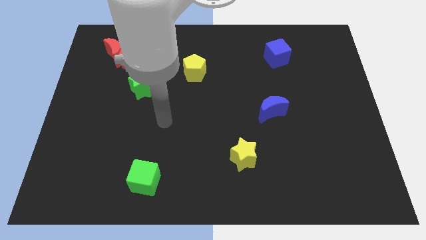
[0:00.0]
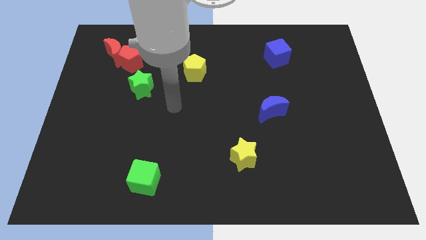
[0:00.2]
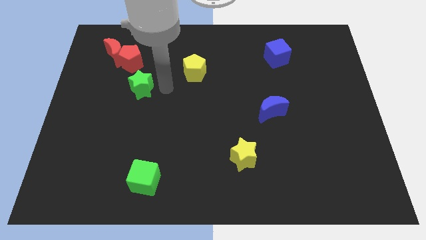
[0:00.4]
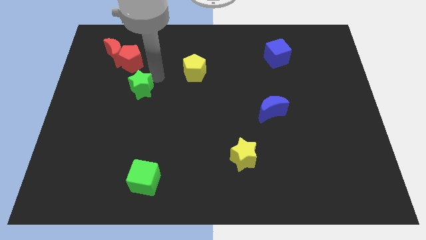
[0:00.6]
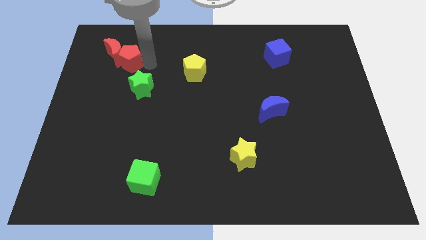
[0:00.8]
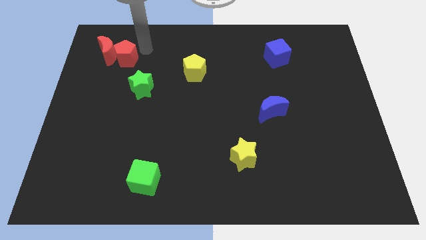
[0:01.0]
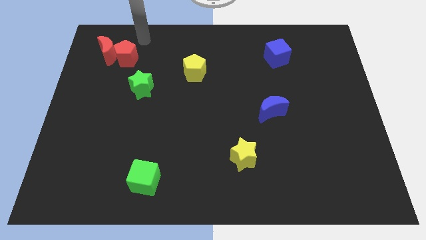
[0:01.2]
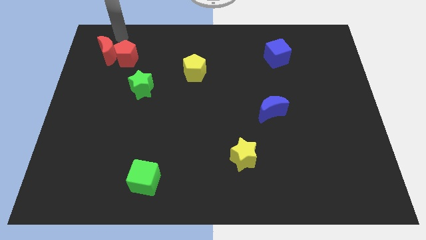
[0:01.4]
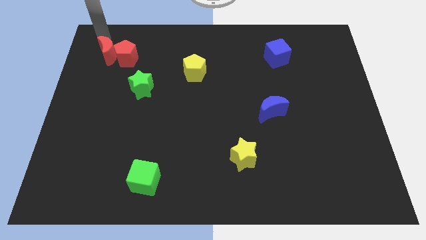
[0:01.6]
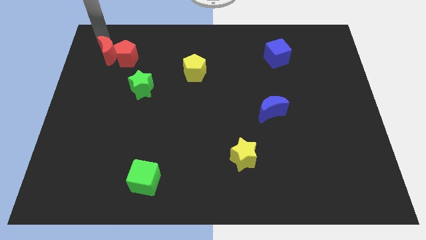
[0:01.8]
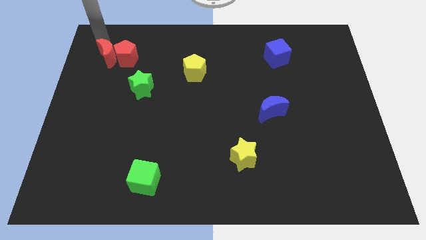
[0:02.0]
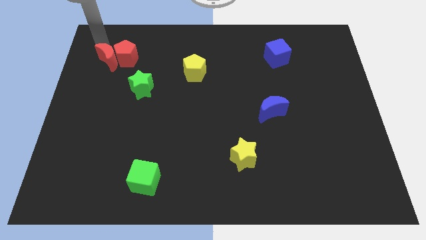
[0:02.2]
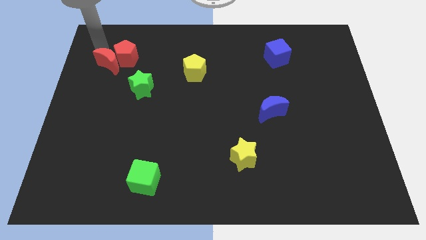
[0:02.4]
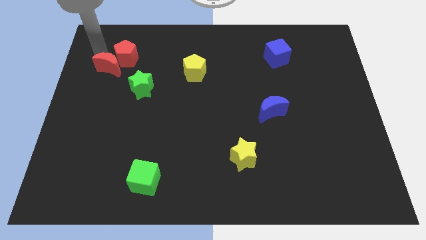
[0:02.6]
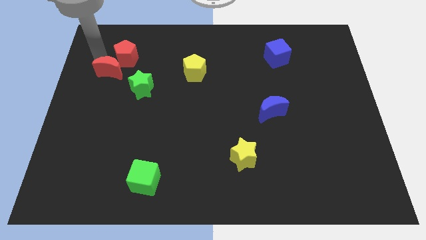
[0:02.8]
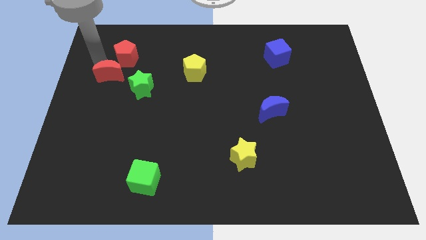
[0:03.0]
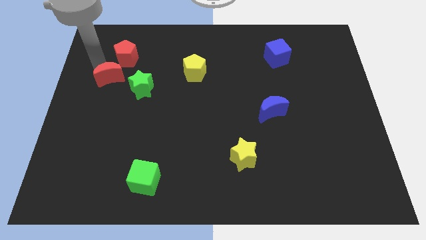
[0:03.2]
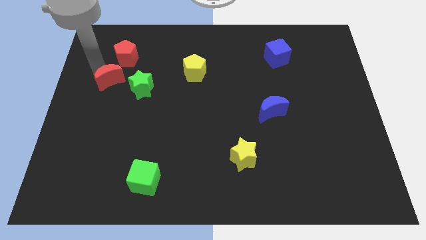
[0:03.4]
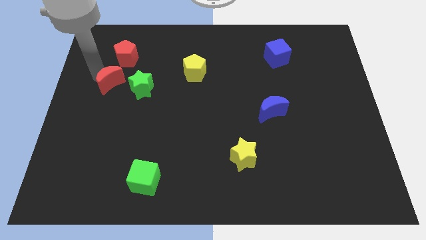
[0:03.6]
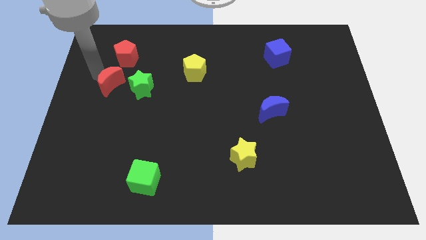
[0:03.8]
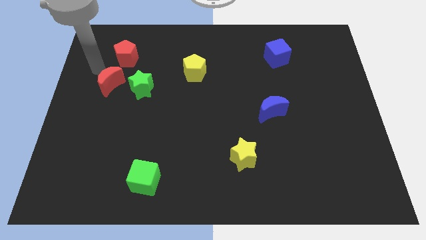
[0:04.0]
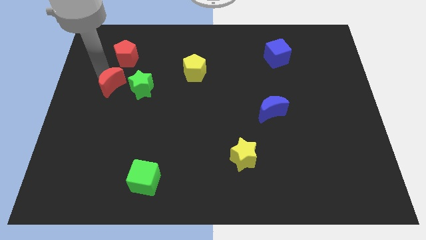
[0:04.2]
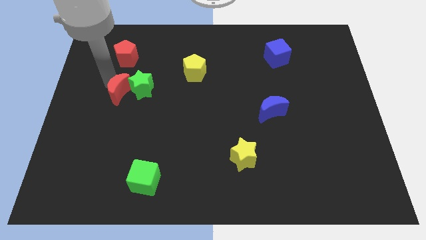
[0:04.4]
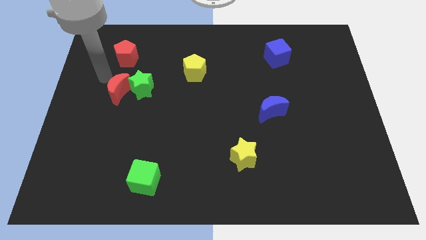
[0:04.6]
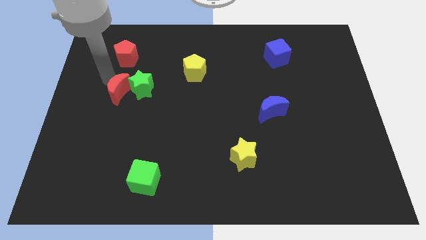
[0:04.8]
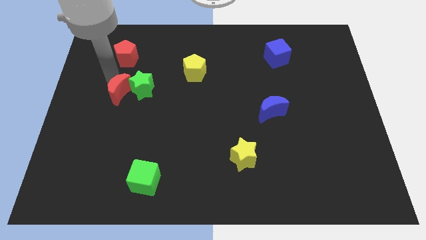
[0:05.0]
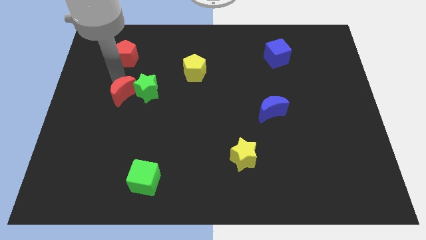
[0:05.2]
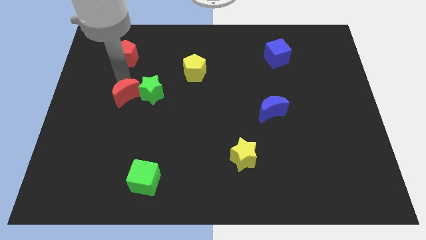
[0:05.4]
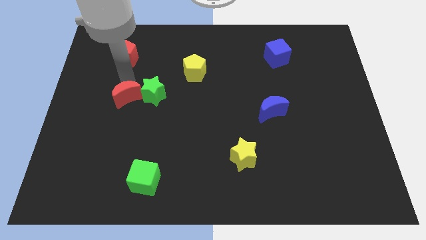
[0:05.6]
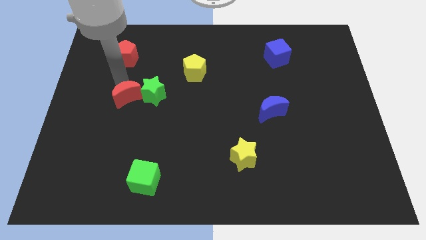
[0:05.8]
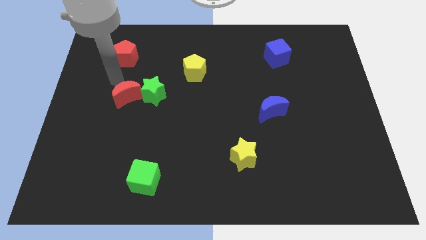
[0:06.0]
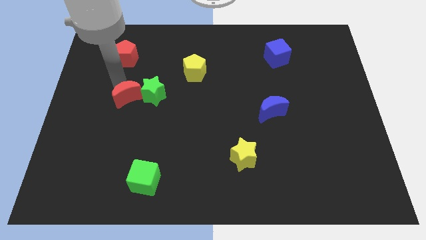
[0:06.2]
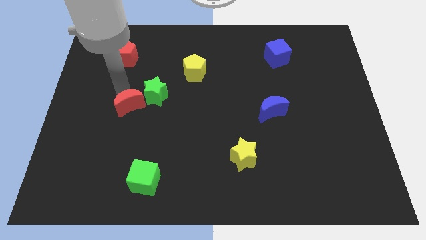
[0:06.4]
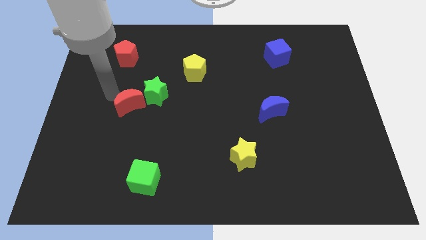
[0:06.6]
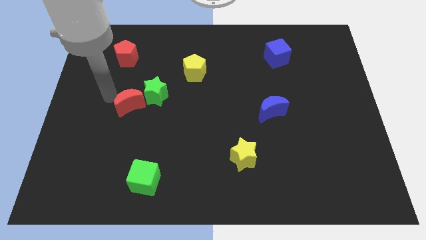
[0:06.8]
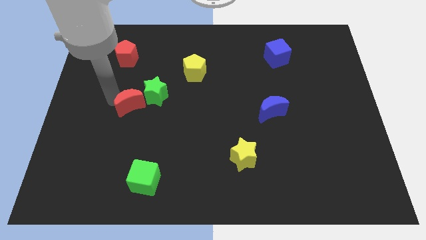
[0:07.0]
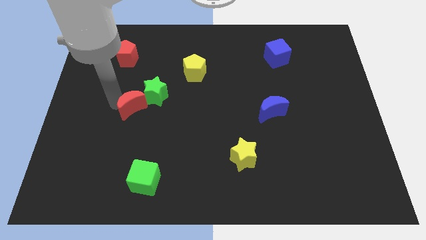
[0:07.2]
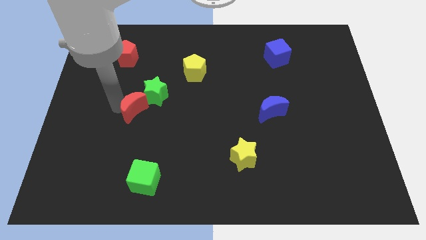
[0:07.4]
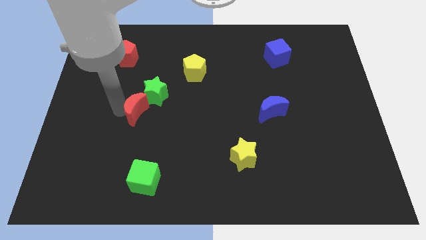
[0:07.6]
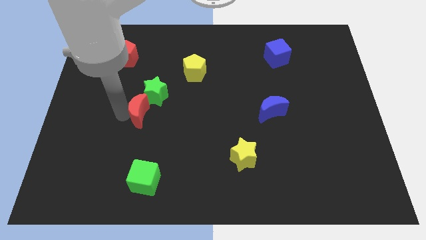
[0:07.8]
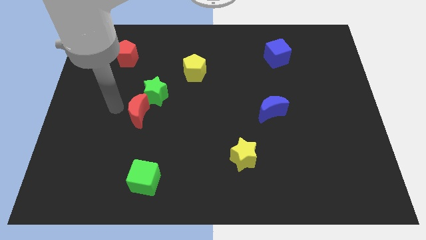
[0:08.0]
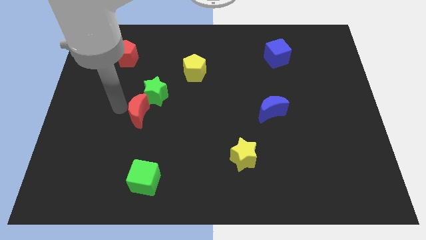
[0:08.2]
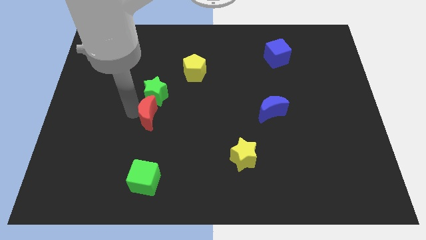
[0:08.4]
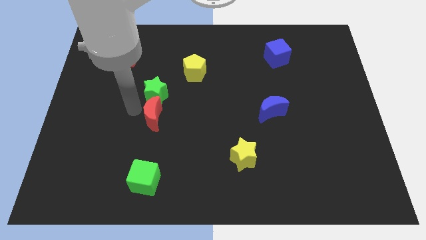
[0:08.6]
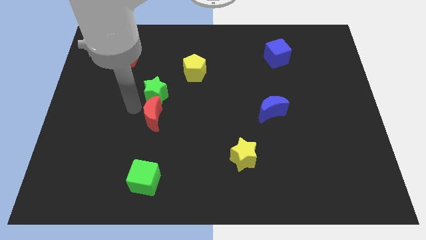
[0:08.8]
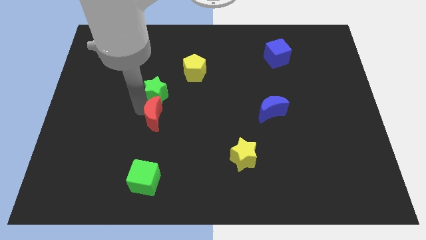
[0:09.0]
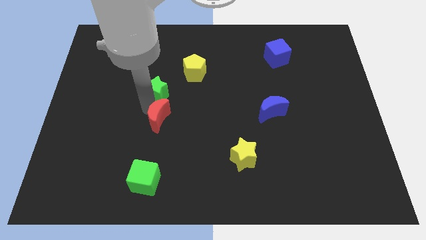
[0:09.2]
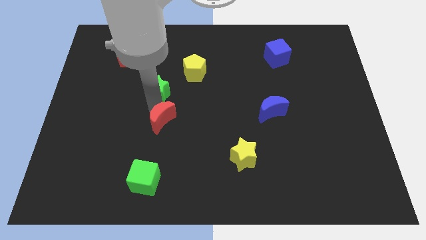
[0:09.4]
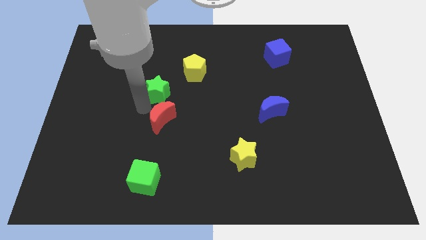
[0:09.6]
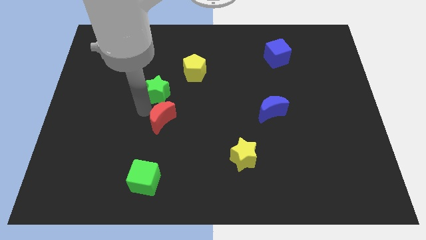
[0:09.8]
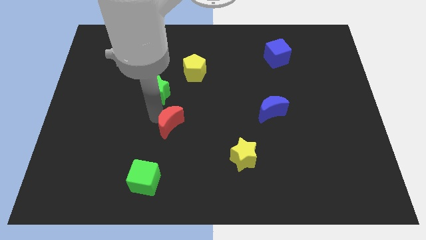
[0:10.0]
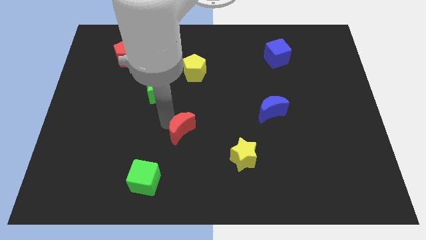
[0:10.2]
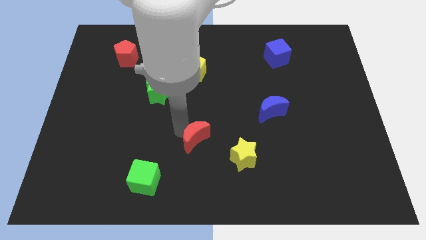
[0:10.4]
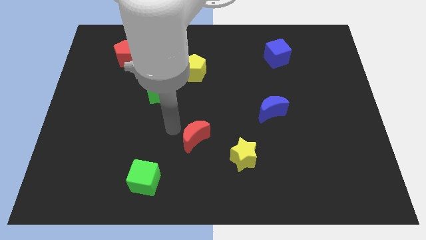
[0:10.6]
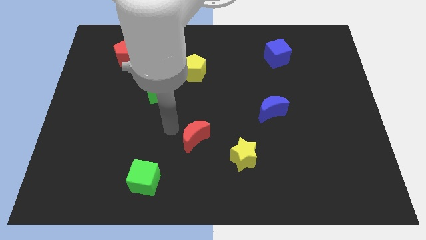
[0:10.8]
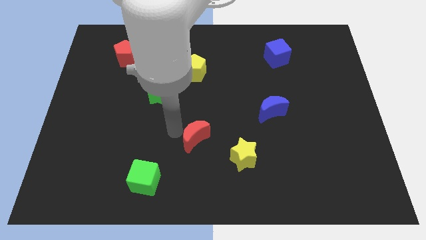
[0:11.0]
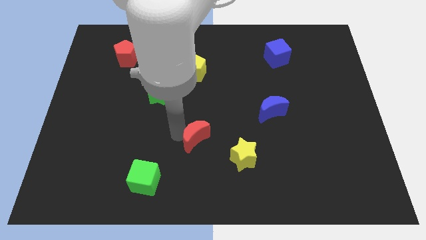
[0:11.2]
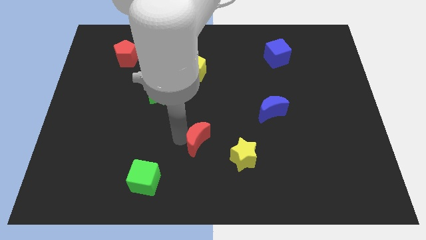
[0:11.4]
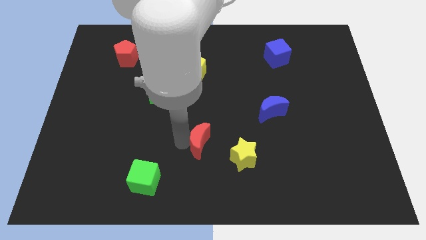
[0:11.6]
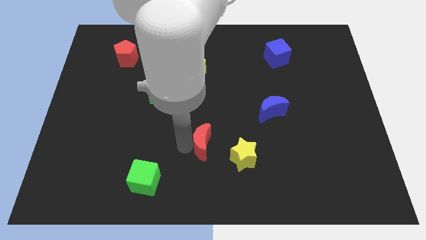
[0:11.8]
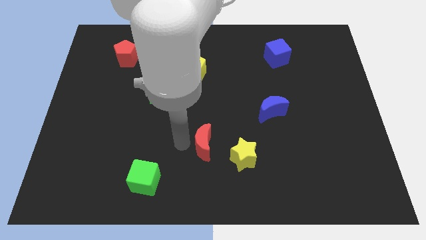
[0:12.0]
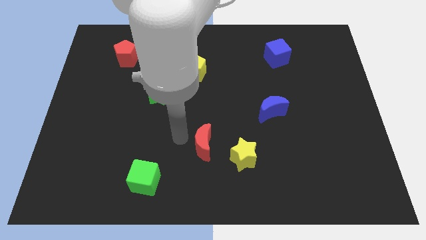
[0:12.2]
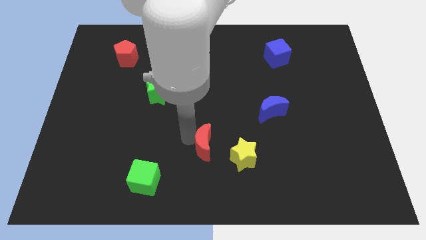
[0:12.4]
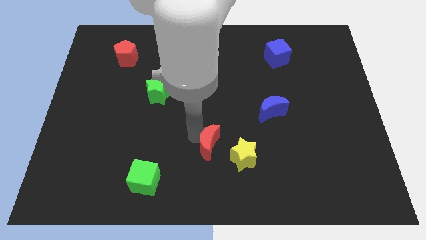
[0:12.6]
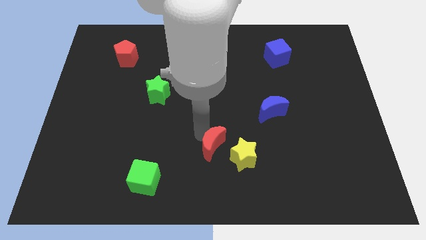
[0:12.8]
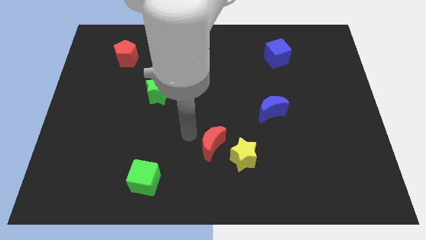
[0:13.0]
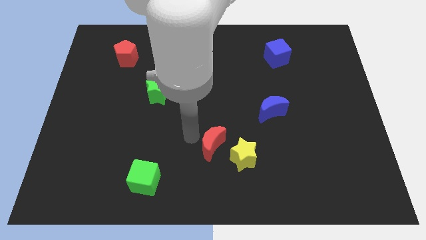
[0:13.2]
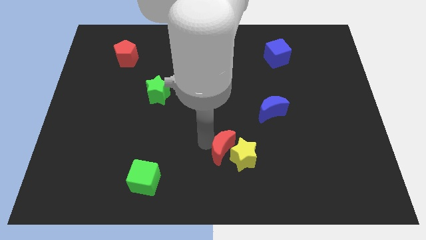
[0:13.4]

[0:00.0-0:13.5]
slide the red moon close to the yellow star

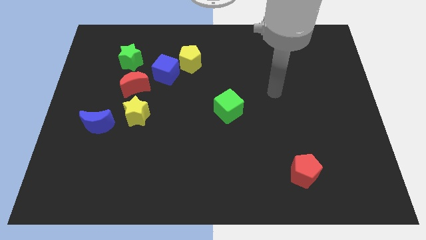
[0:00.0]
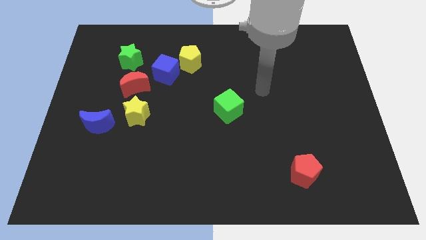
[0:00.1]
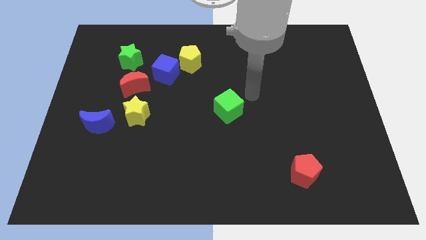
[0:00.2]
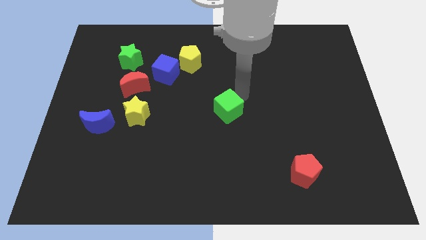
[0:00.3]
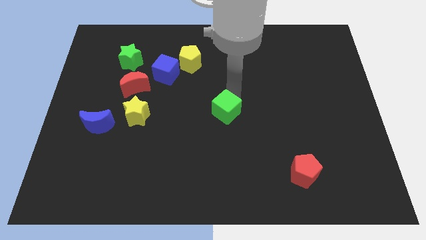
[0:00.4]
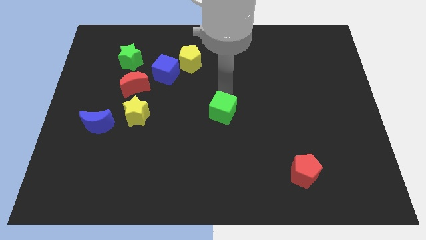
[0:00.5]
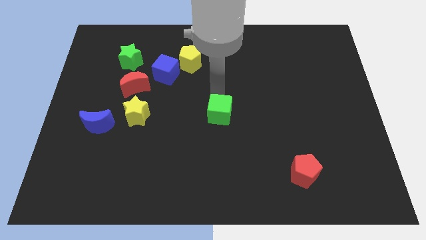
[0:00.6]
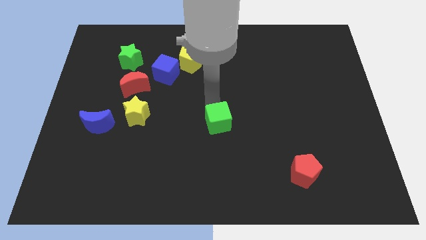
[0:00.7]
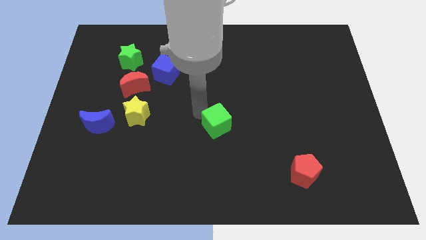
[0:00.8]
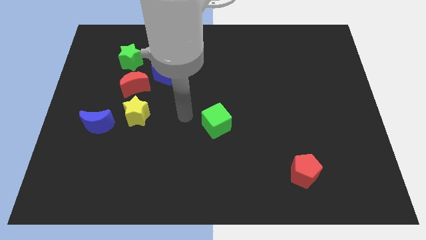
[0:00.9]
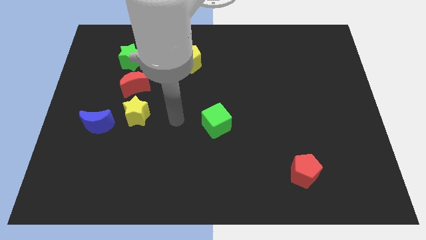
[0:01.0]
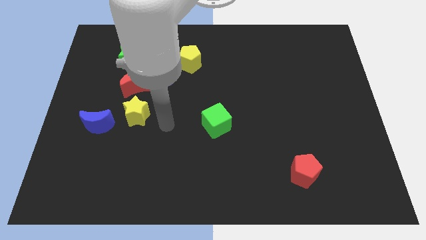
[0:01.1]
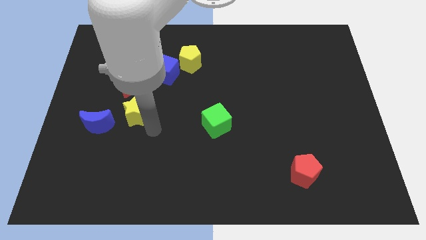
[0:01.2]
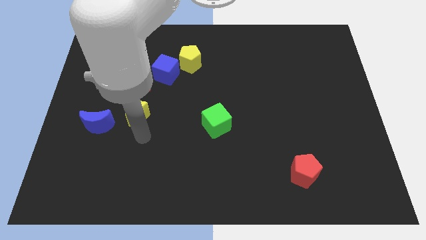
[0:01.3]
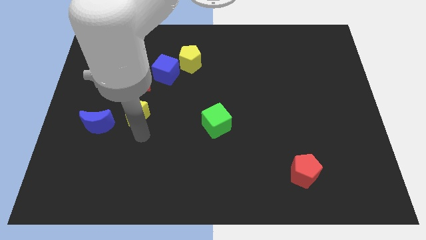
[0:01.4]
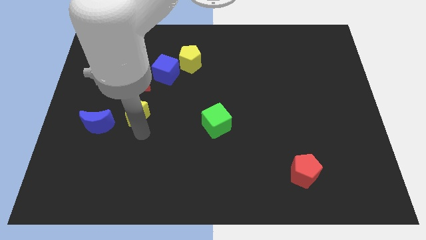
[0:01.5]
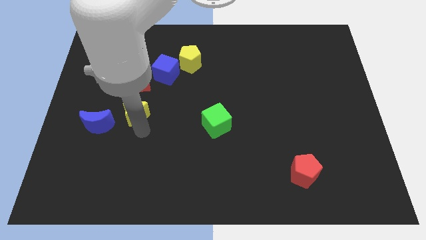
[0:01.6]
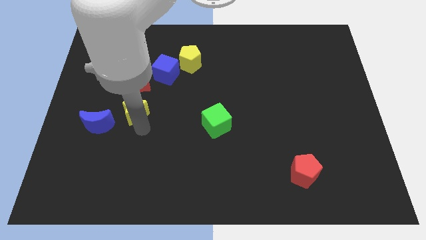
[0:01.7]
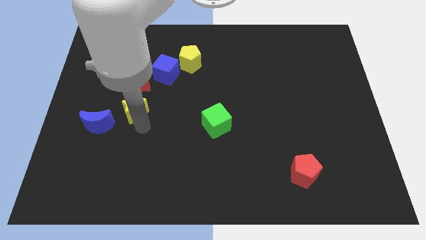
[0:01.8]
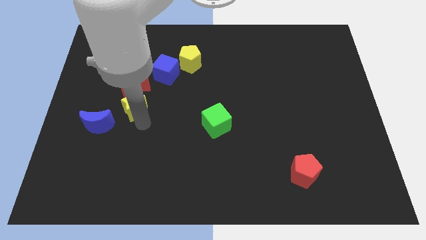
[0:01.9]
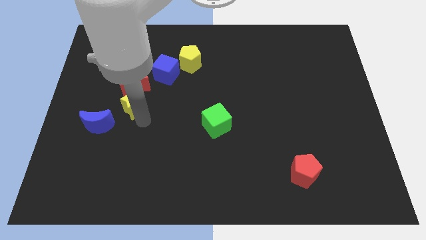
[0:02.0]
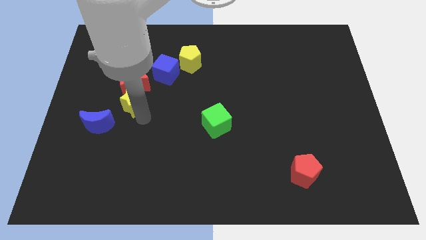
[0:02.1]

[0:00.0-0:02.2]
push the yellow star next to the red moon
